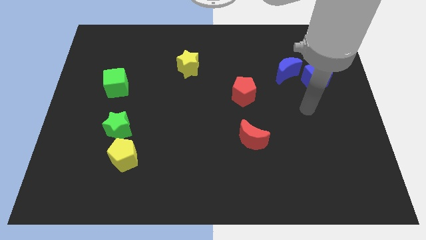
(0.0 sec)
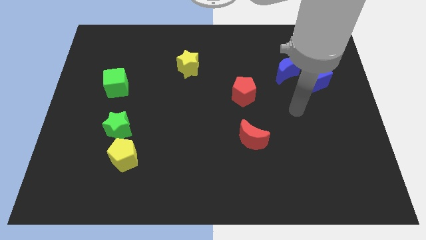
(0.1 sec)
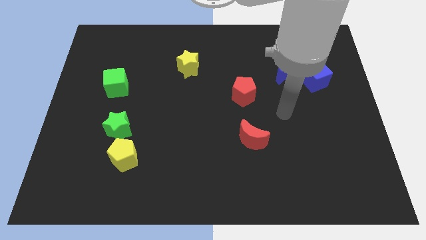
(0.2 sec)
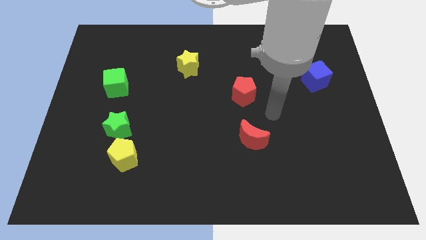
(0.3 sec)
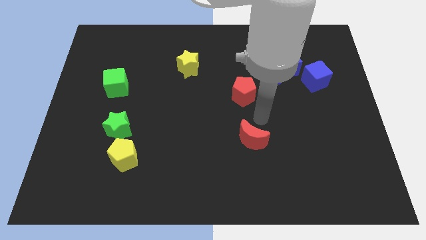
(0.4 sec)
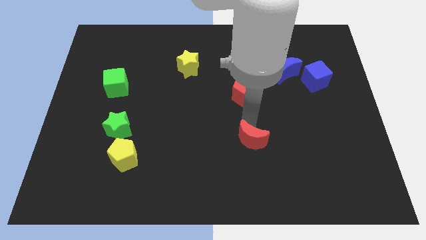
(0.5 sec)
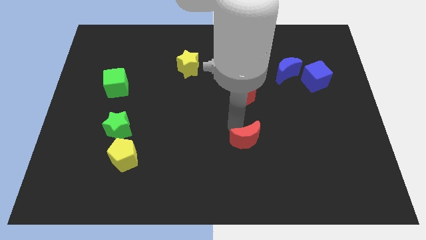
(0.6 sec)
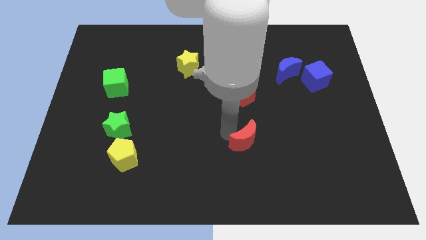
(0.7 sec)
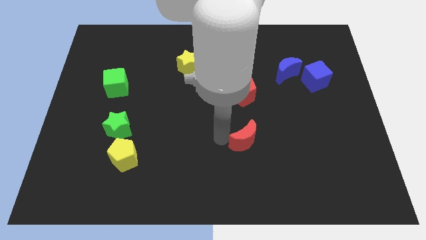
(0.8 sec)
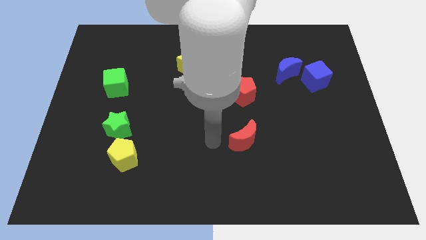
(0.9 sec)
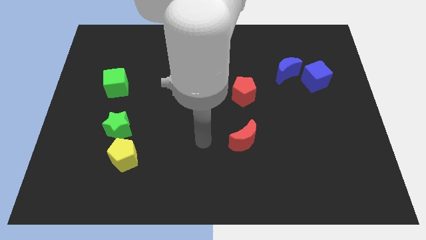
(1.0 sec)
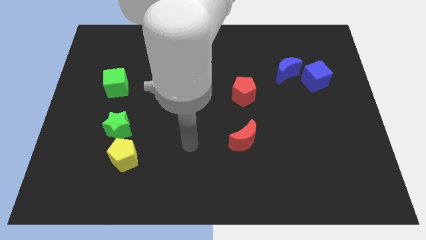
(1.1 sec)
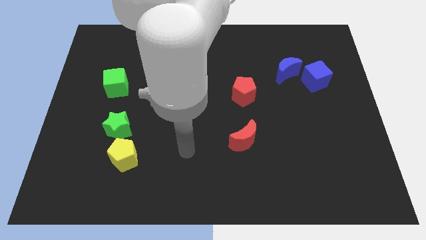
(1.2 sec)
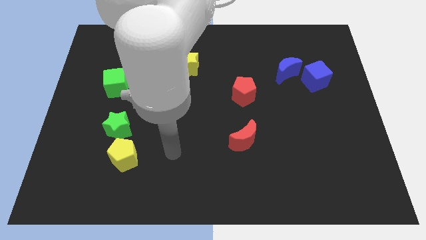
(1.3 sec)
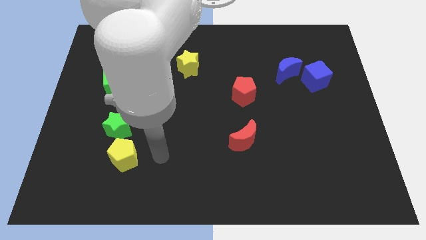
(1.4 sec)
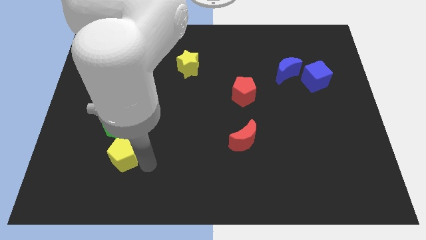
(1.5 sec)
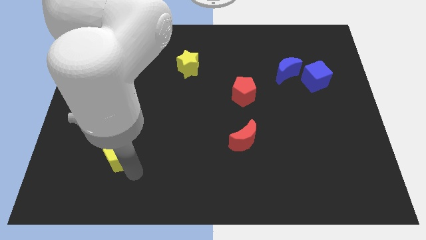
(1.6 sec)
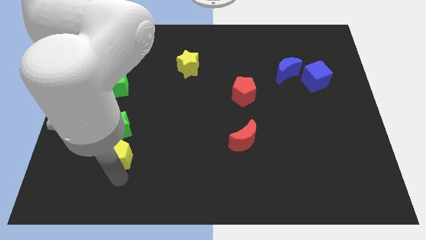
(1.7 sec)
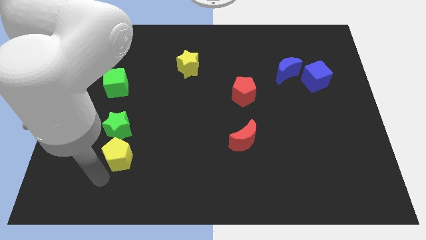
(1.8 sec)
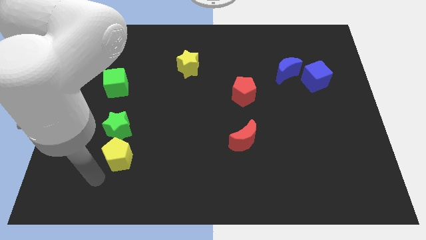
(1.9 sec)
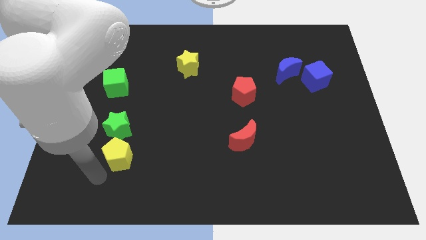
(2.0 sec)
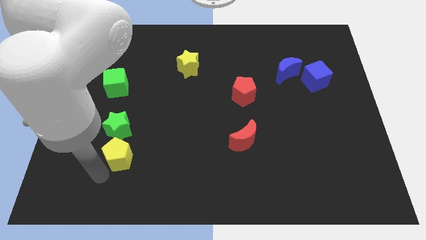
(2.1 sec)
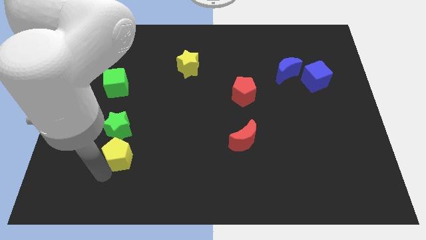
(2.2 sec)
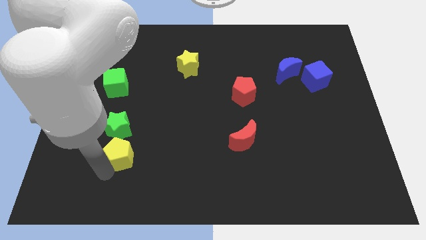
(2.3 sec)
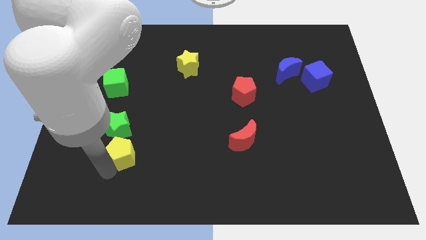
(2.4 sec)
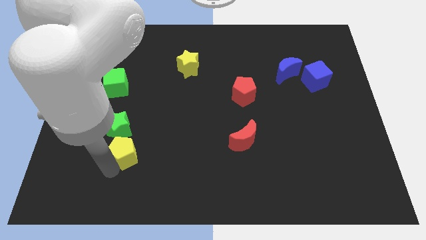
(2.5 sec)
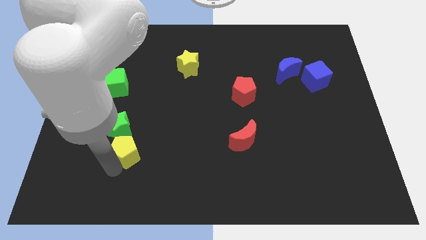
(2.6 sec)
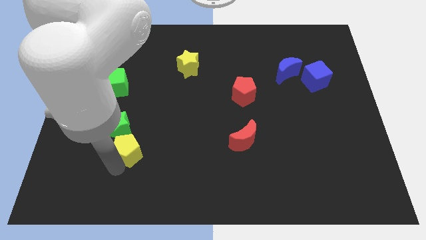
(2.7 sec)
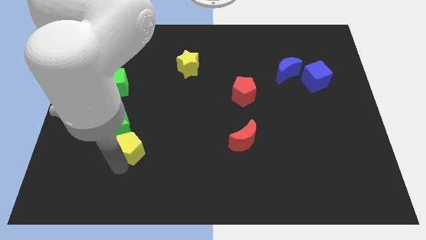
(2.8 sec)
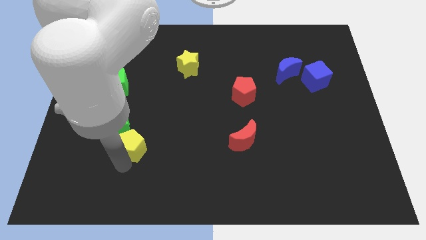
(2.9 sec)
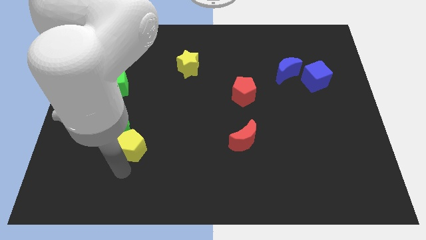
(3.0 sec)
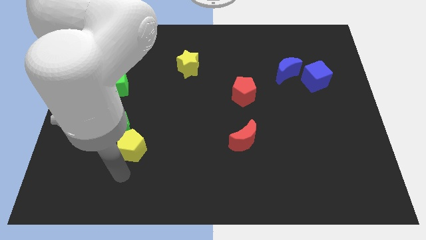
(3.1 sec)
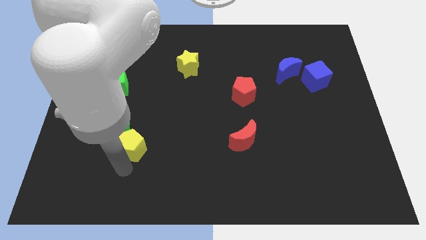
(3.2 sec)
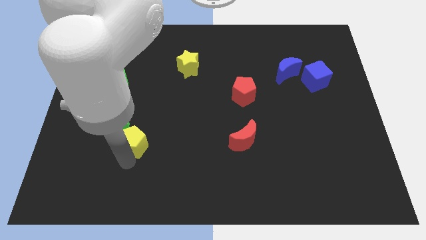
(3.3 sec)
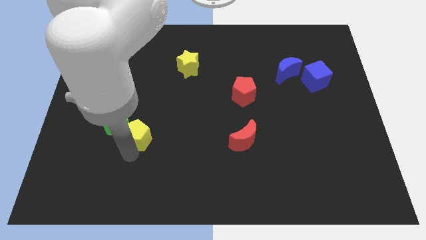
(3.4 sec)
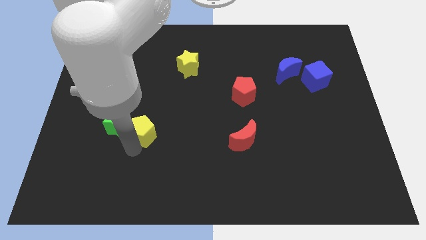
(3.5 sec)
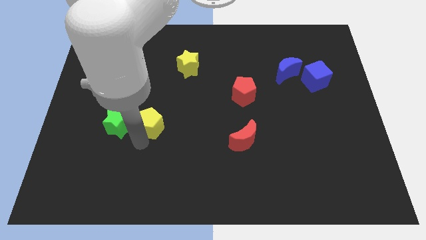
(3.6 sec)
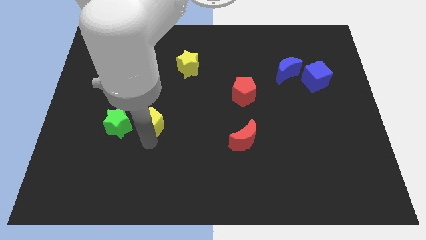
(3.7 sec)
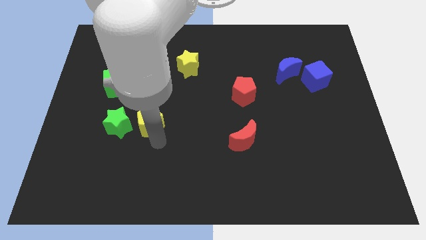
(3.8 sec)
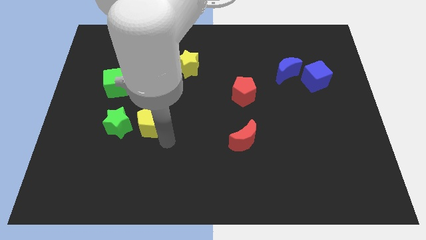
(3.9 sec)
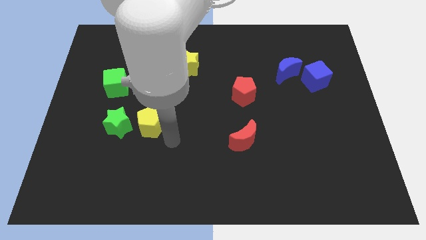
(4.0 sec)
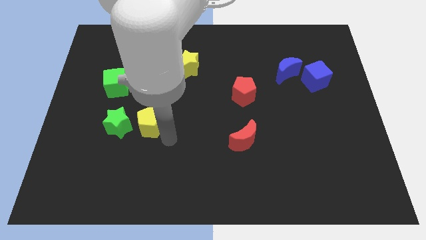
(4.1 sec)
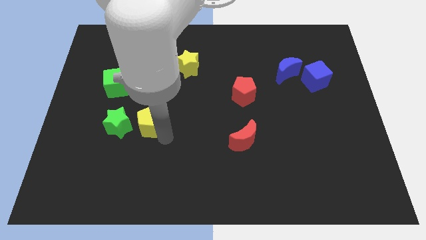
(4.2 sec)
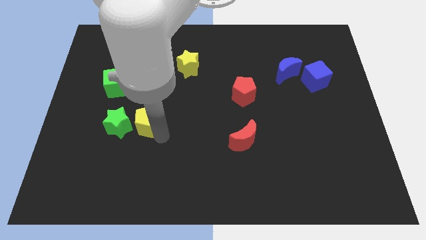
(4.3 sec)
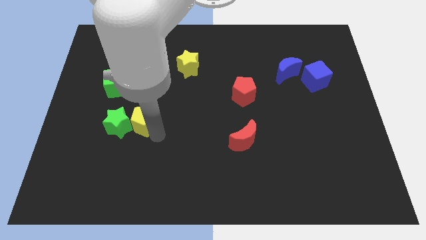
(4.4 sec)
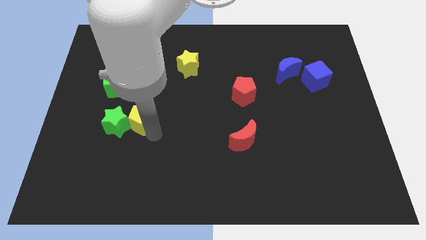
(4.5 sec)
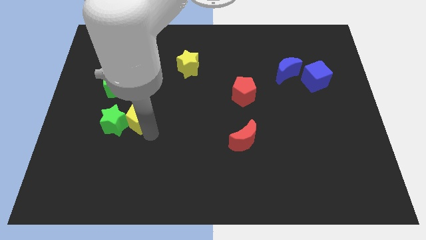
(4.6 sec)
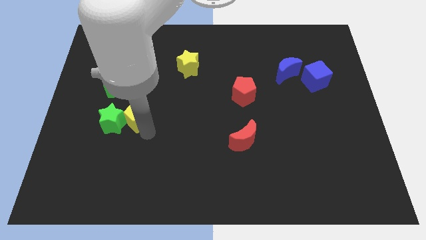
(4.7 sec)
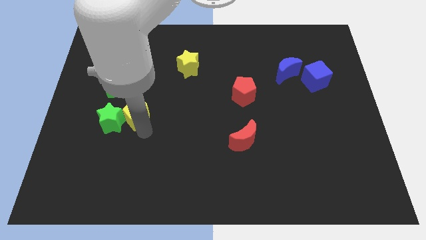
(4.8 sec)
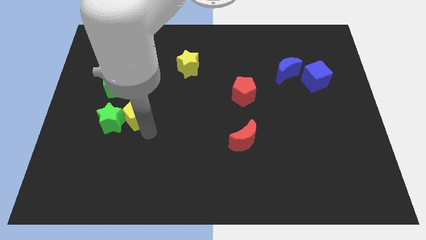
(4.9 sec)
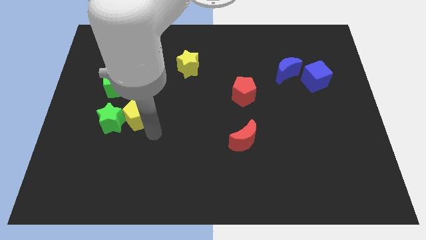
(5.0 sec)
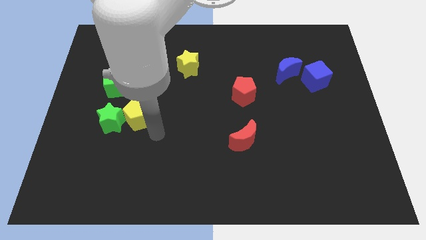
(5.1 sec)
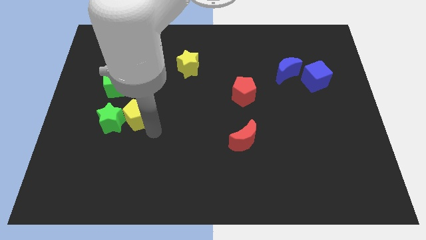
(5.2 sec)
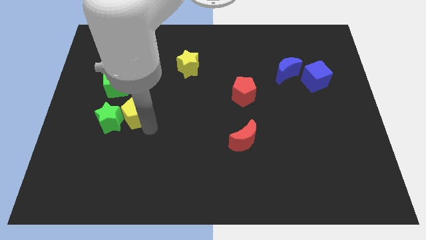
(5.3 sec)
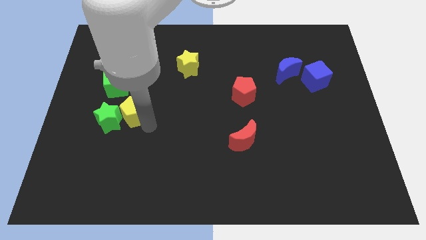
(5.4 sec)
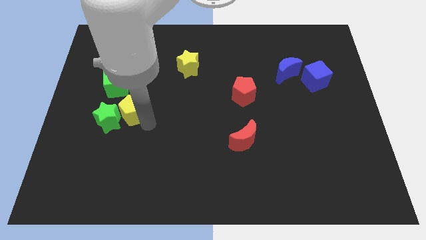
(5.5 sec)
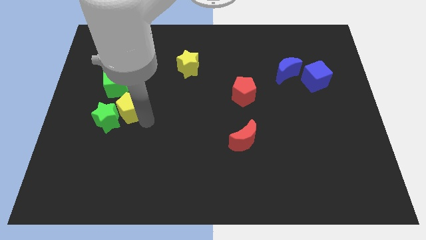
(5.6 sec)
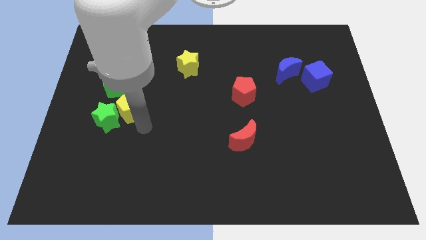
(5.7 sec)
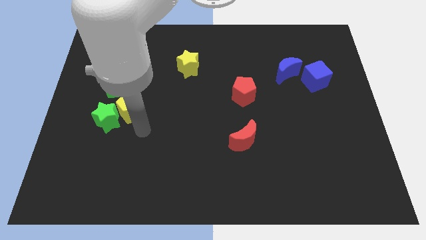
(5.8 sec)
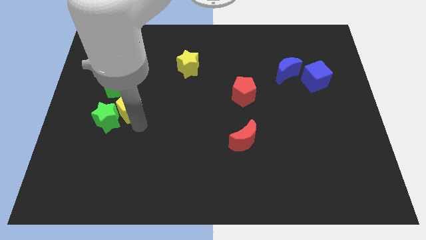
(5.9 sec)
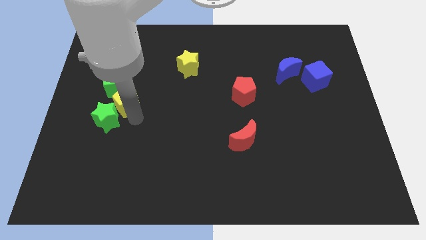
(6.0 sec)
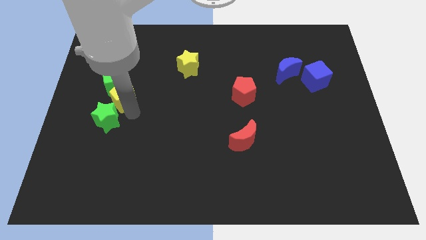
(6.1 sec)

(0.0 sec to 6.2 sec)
slide the yellow pentagon towards the green cube

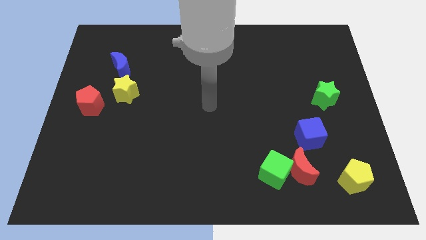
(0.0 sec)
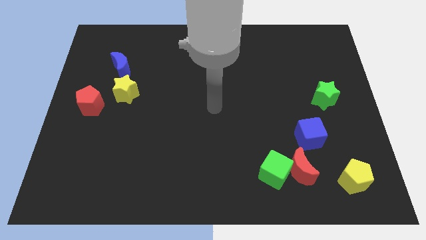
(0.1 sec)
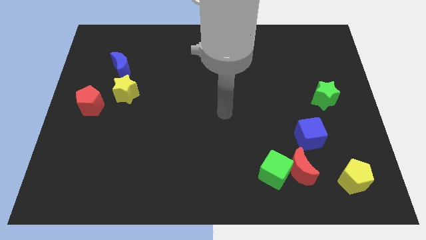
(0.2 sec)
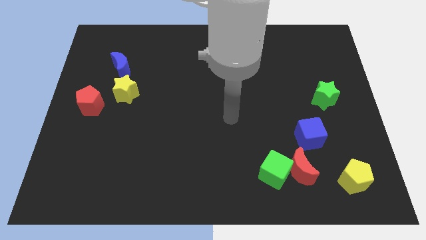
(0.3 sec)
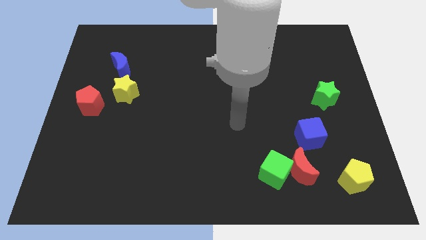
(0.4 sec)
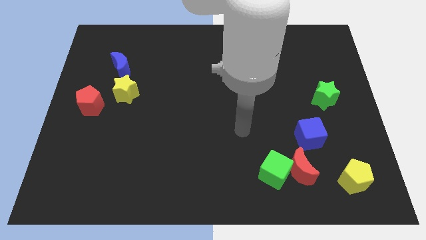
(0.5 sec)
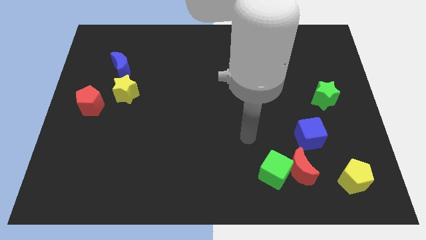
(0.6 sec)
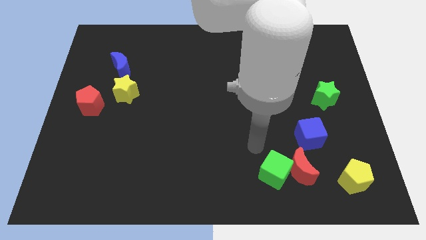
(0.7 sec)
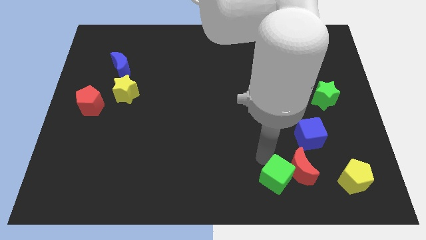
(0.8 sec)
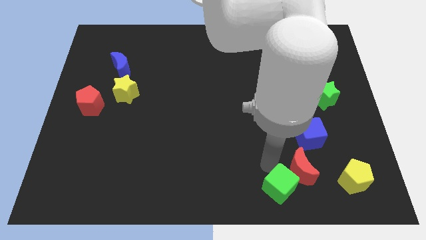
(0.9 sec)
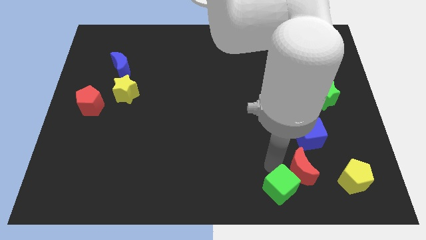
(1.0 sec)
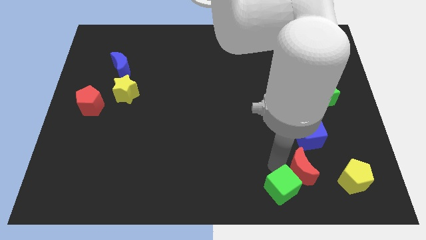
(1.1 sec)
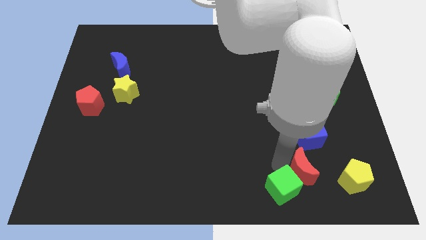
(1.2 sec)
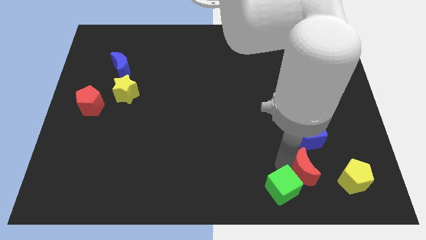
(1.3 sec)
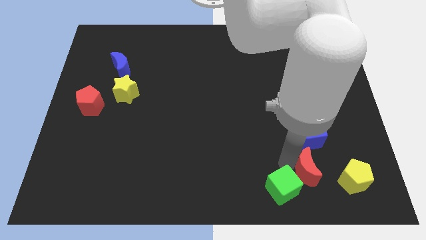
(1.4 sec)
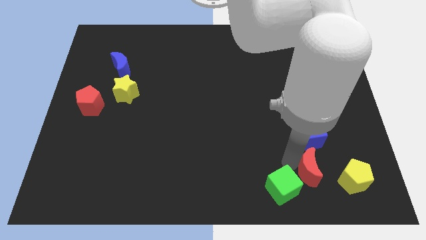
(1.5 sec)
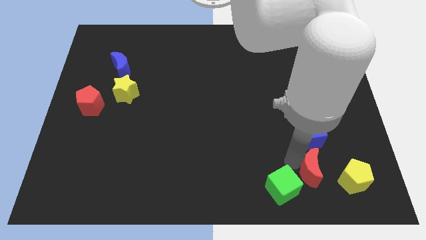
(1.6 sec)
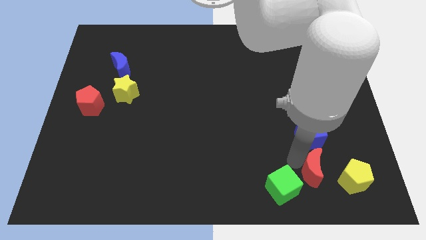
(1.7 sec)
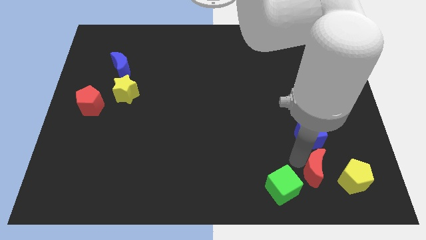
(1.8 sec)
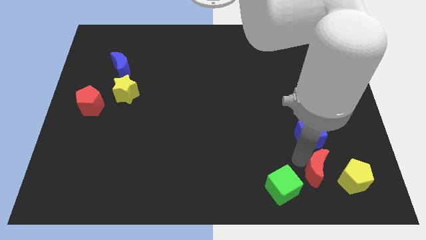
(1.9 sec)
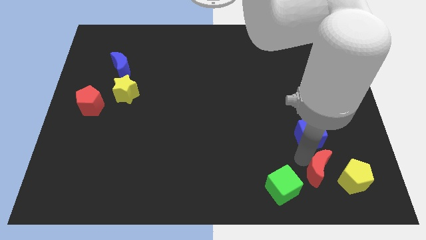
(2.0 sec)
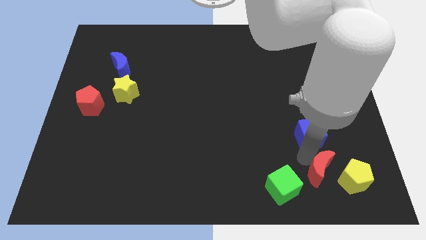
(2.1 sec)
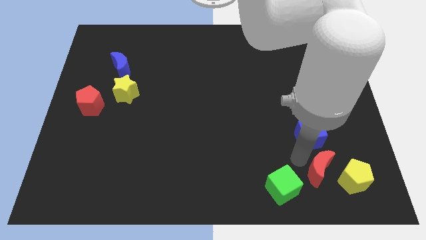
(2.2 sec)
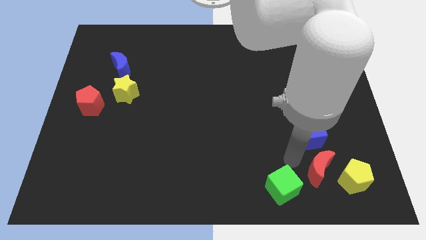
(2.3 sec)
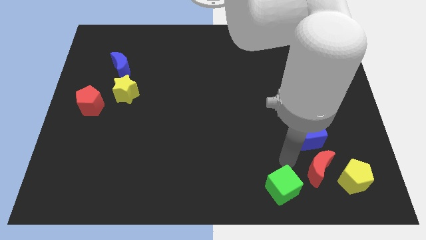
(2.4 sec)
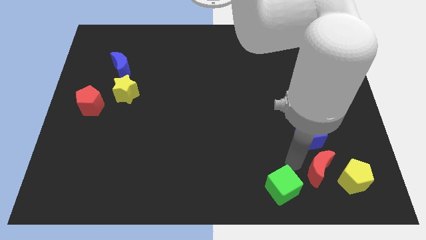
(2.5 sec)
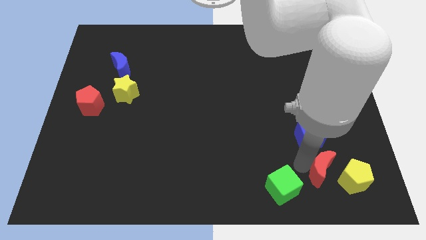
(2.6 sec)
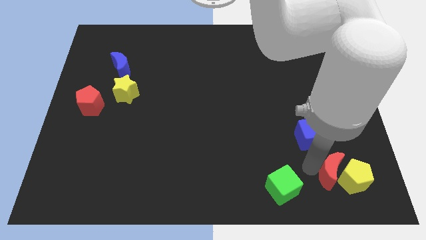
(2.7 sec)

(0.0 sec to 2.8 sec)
move the red moon next to the yellow pentagon
